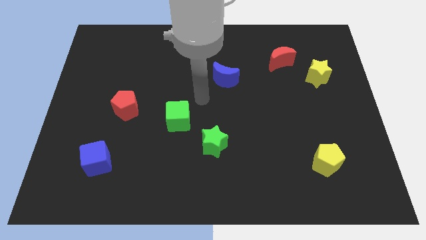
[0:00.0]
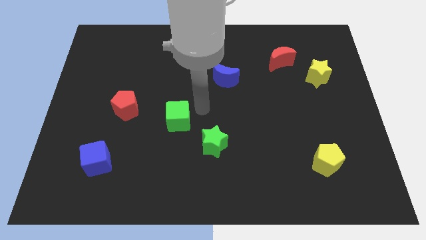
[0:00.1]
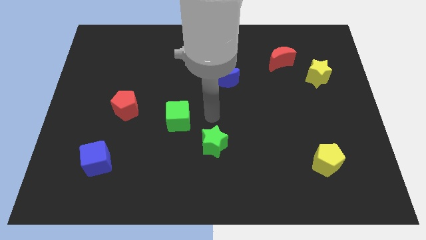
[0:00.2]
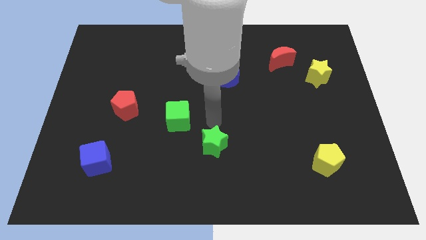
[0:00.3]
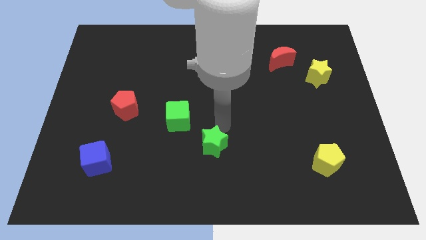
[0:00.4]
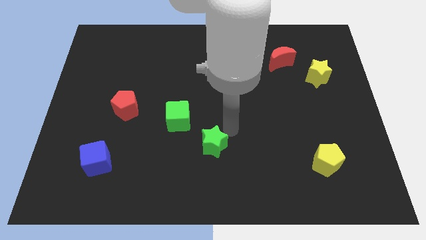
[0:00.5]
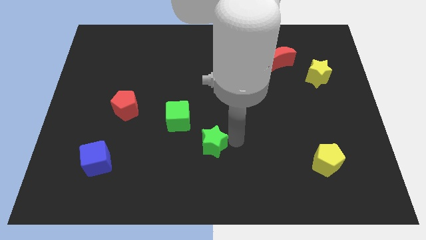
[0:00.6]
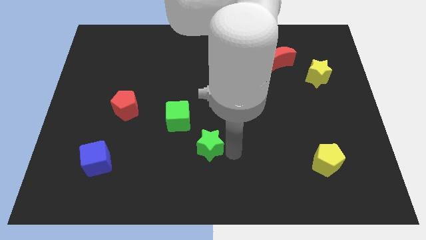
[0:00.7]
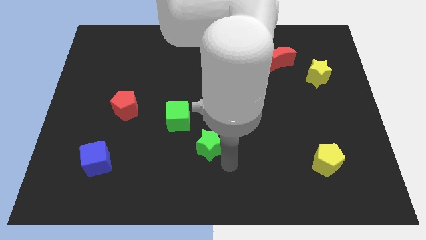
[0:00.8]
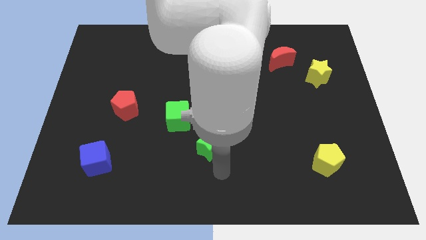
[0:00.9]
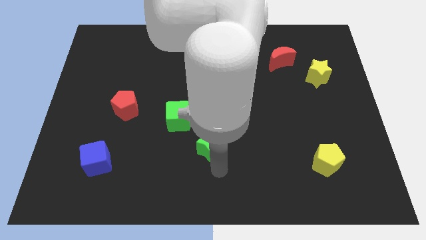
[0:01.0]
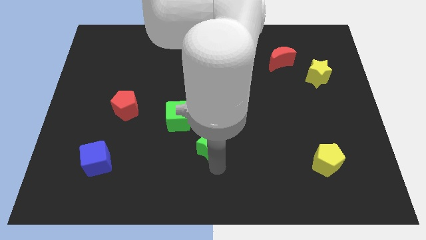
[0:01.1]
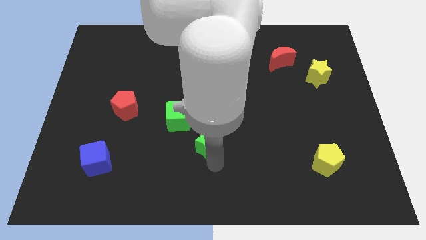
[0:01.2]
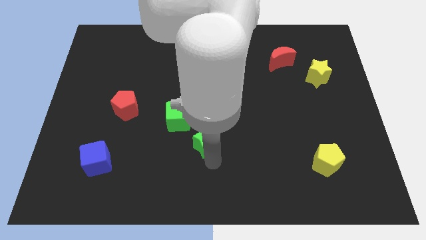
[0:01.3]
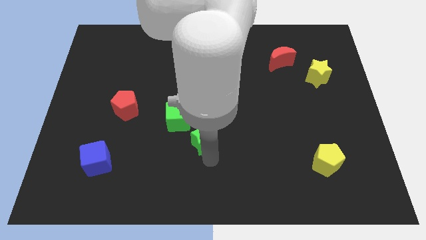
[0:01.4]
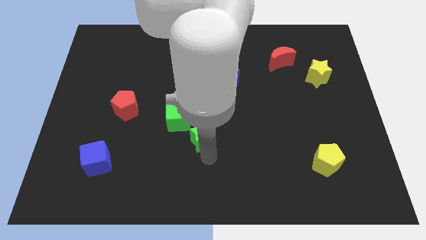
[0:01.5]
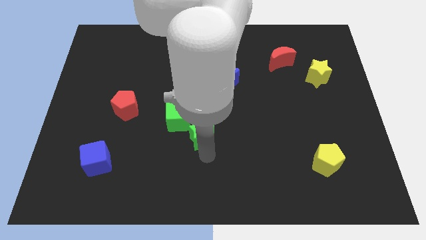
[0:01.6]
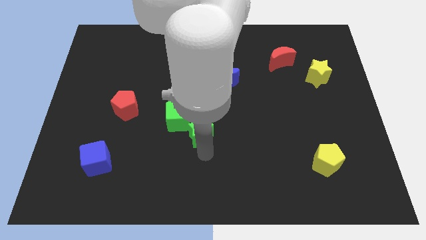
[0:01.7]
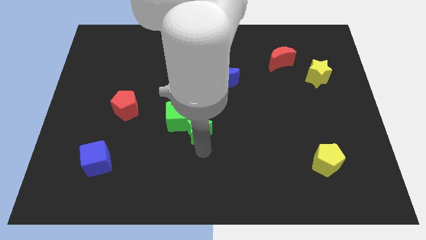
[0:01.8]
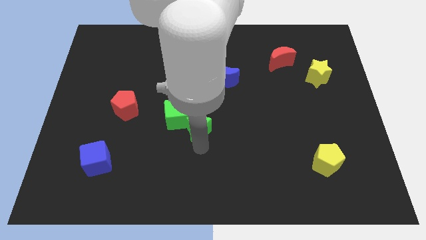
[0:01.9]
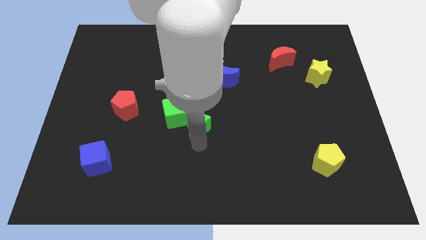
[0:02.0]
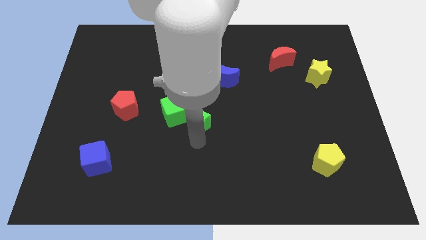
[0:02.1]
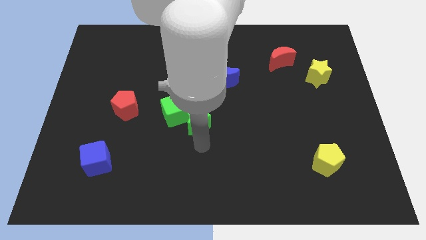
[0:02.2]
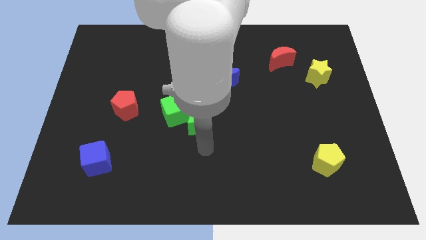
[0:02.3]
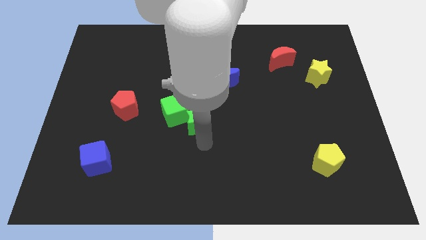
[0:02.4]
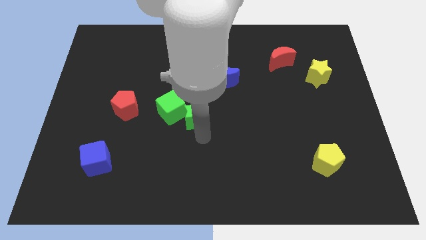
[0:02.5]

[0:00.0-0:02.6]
slide the green star a bit diagonally up and to the left

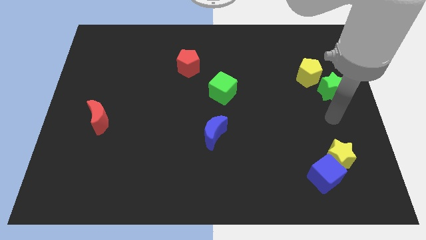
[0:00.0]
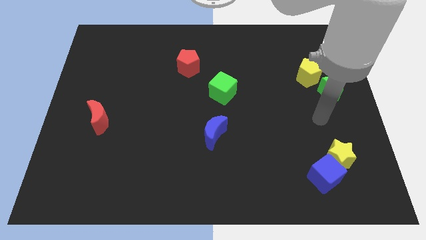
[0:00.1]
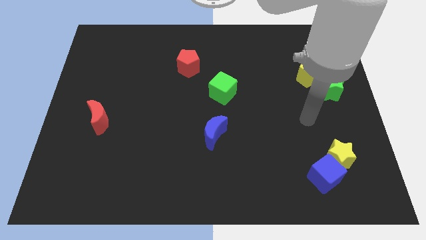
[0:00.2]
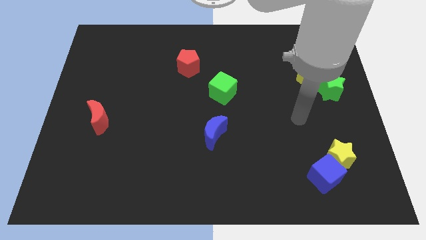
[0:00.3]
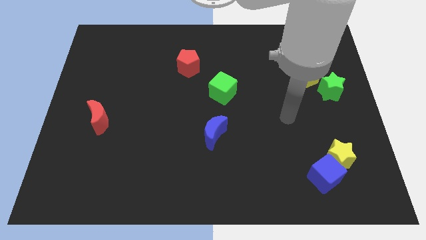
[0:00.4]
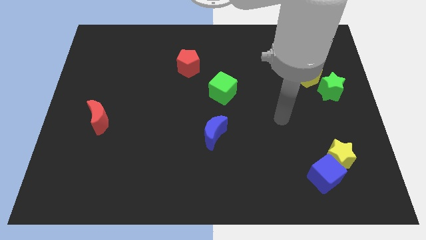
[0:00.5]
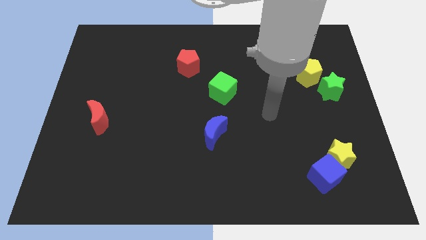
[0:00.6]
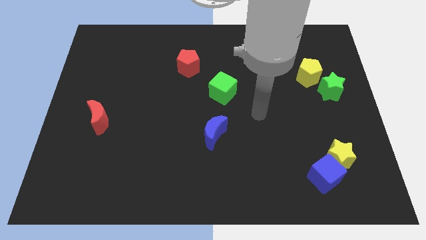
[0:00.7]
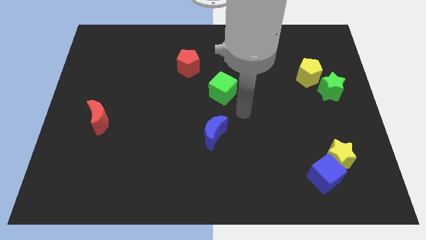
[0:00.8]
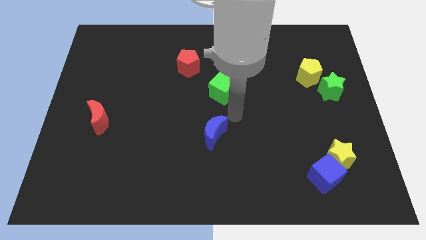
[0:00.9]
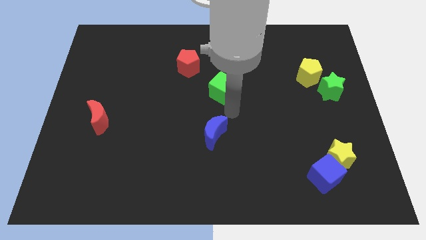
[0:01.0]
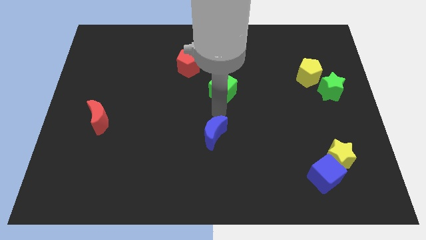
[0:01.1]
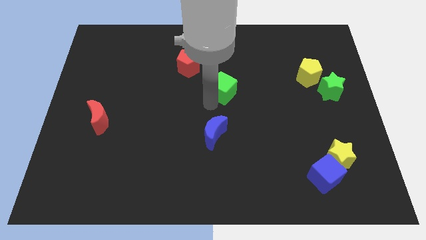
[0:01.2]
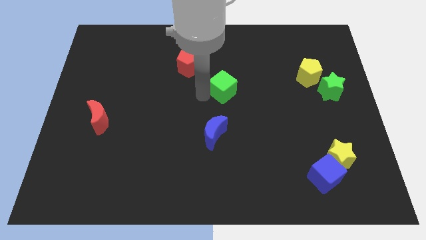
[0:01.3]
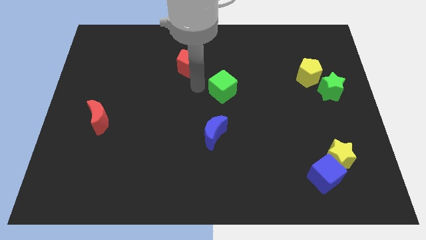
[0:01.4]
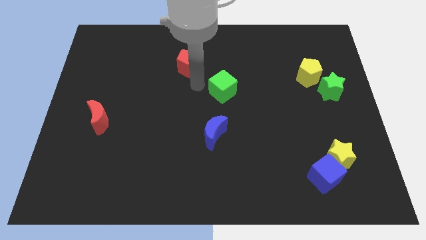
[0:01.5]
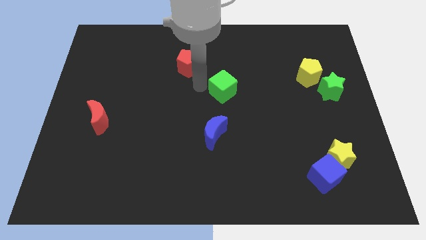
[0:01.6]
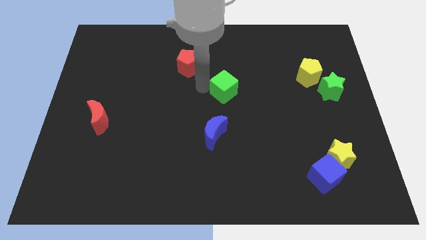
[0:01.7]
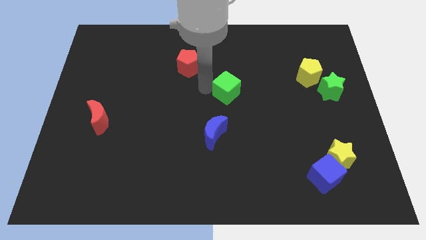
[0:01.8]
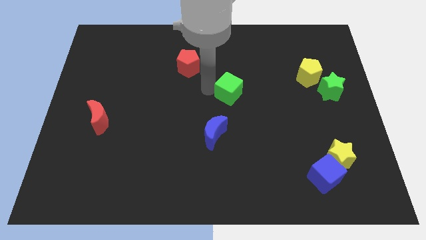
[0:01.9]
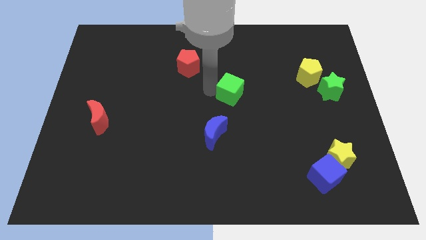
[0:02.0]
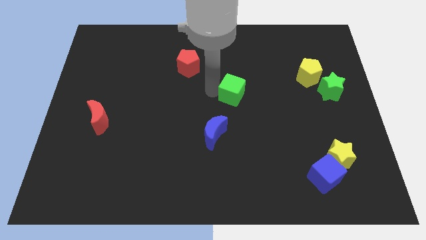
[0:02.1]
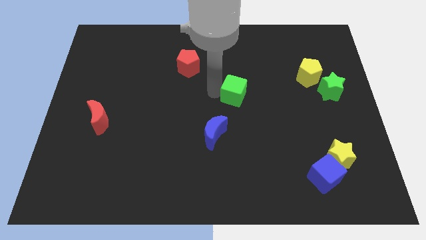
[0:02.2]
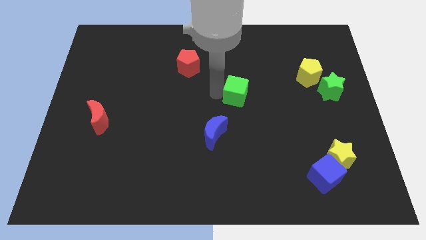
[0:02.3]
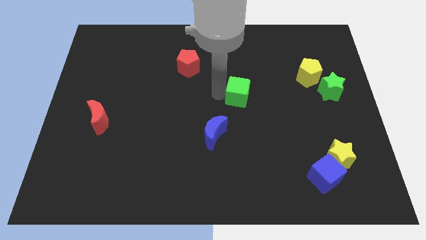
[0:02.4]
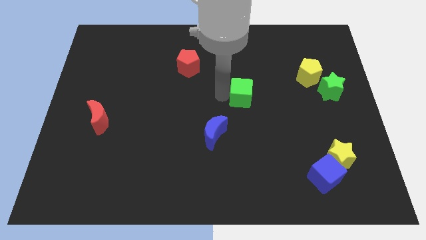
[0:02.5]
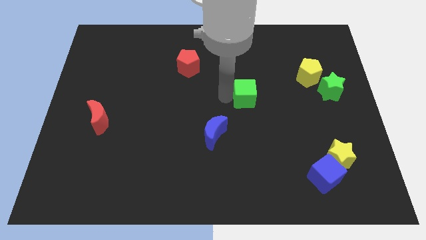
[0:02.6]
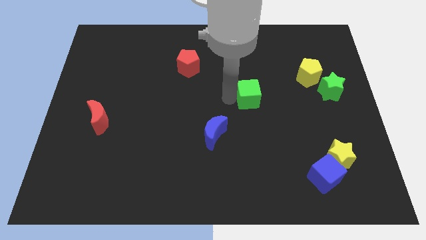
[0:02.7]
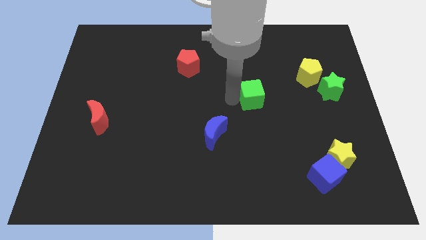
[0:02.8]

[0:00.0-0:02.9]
slightly slide the green cube right

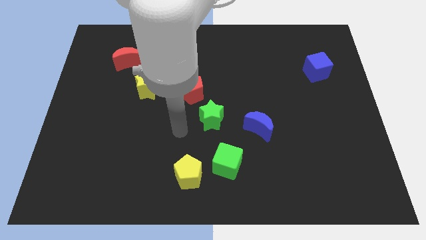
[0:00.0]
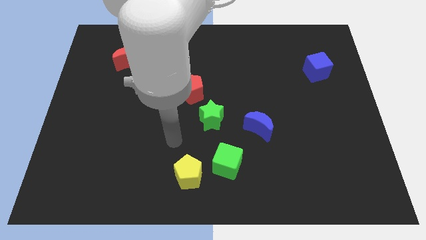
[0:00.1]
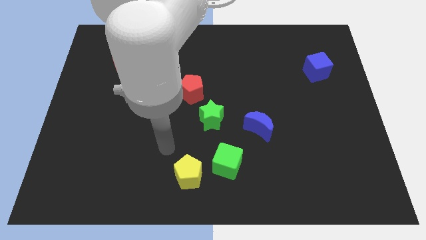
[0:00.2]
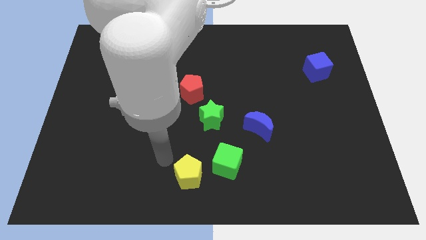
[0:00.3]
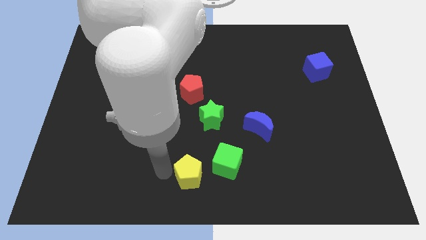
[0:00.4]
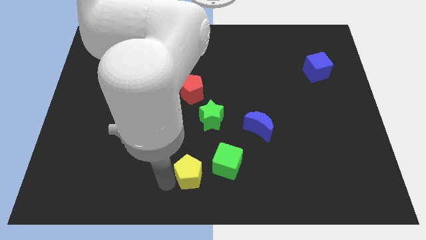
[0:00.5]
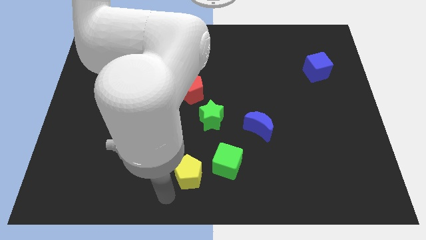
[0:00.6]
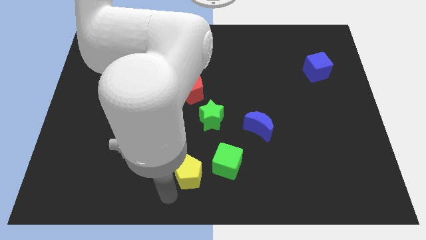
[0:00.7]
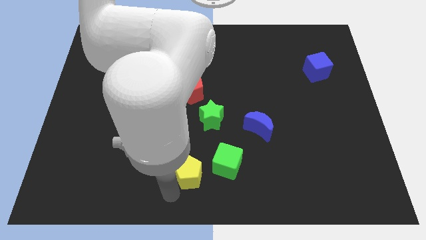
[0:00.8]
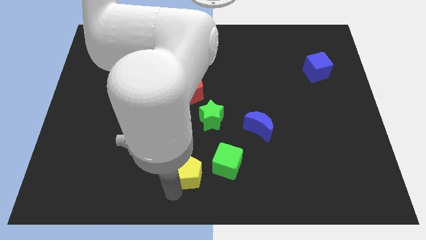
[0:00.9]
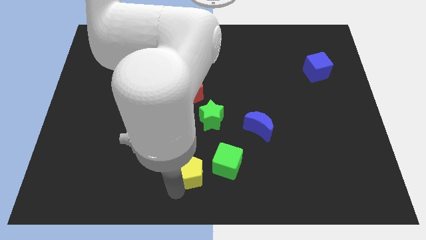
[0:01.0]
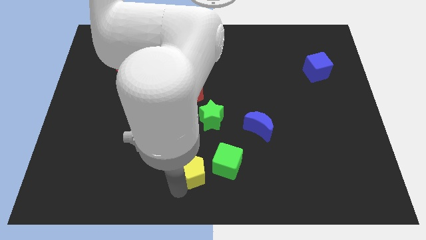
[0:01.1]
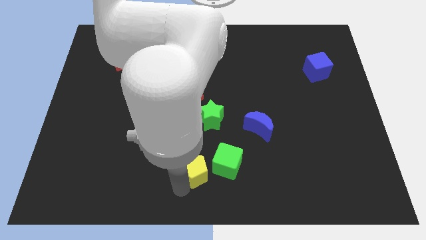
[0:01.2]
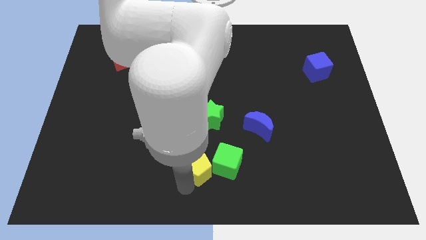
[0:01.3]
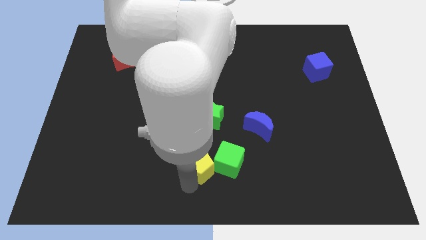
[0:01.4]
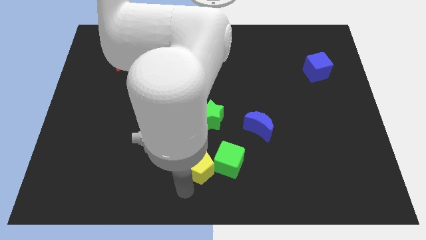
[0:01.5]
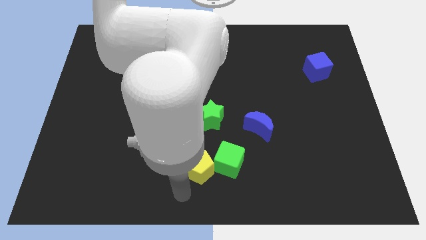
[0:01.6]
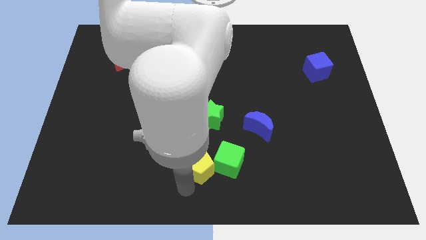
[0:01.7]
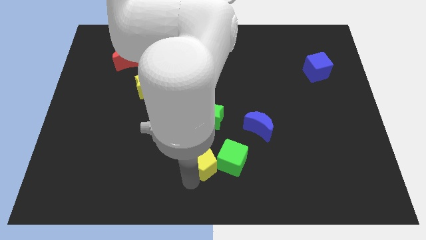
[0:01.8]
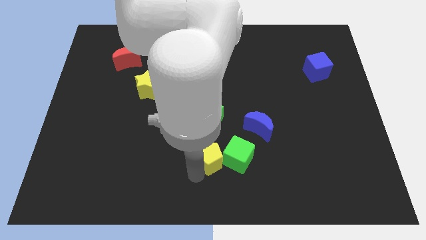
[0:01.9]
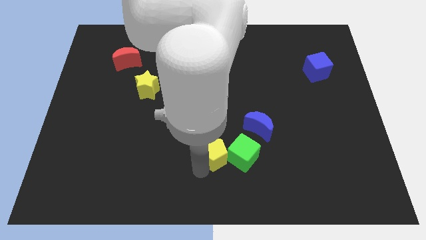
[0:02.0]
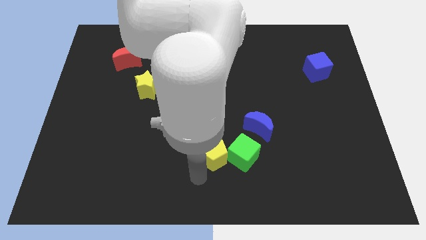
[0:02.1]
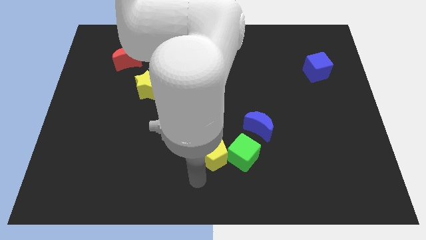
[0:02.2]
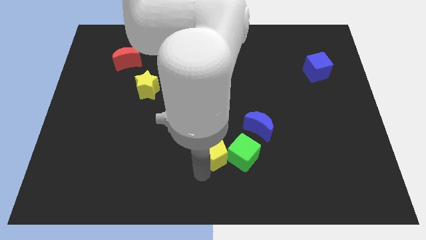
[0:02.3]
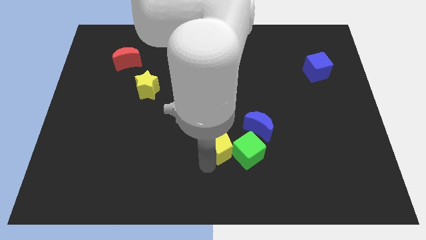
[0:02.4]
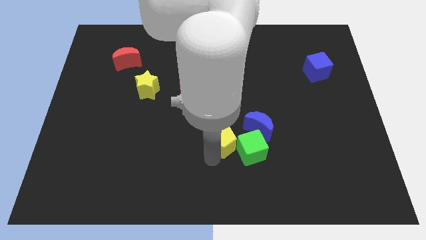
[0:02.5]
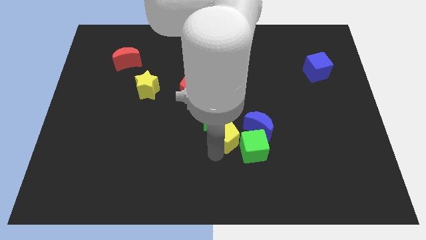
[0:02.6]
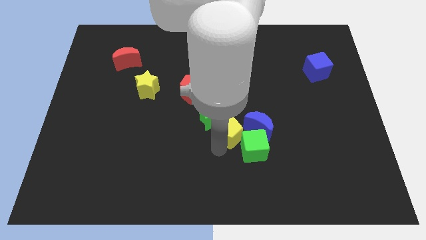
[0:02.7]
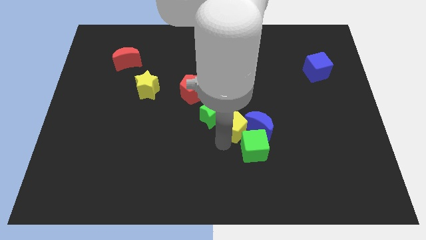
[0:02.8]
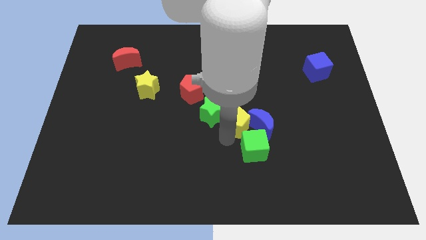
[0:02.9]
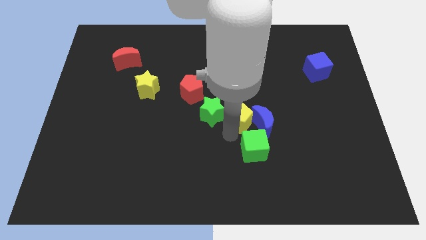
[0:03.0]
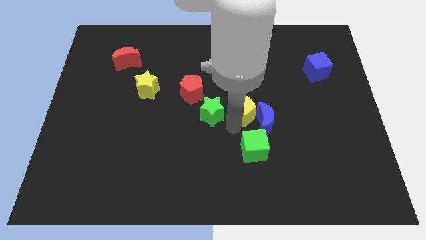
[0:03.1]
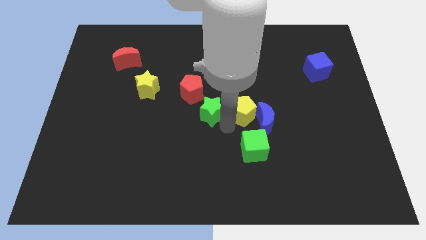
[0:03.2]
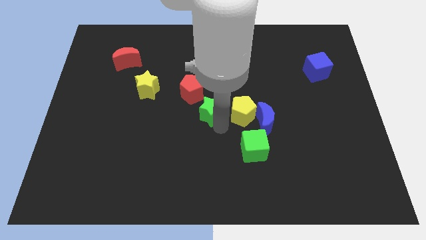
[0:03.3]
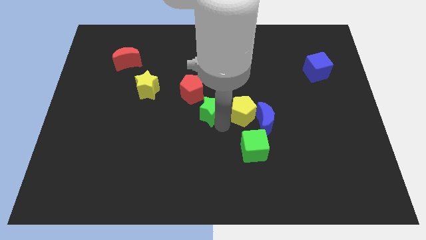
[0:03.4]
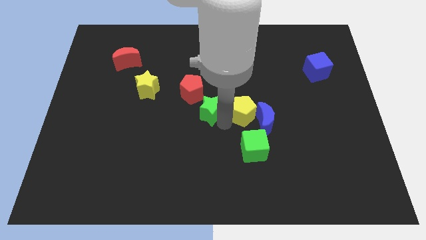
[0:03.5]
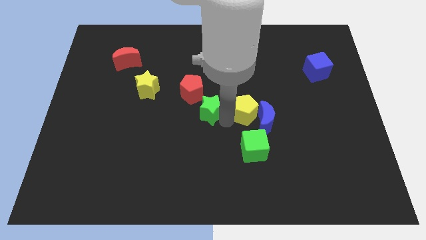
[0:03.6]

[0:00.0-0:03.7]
move the yellow pentagon diagonally upwards and to the right
